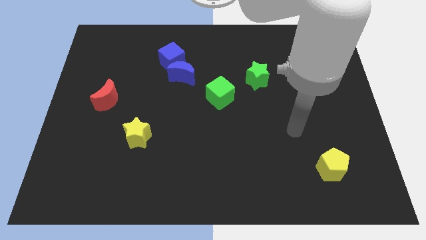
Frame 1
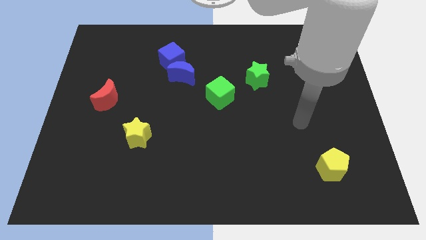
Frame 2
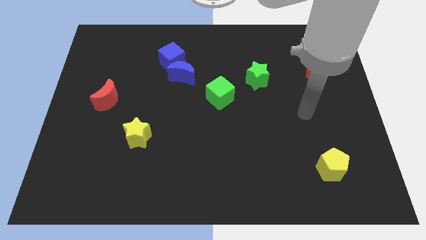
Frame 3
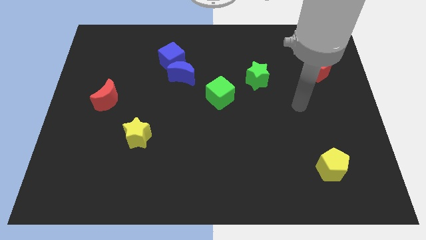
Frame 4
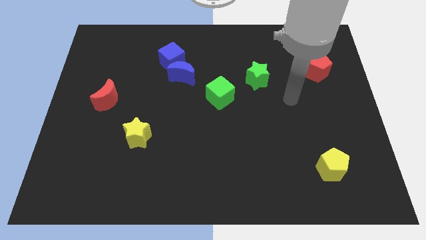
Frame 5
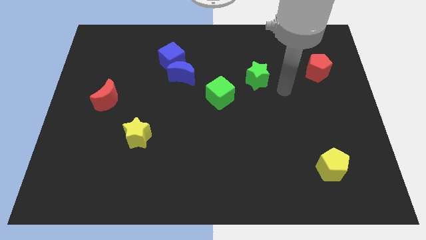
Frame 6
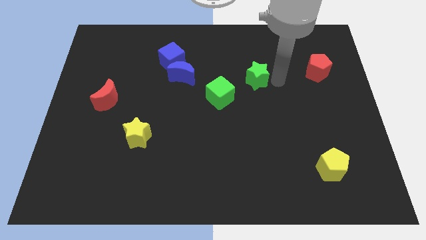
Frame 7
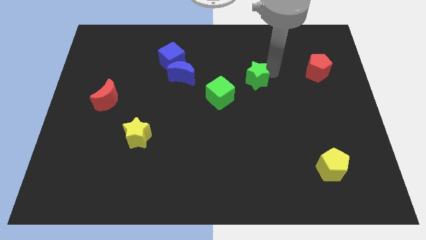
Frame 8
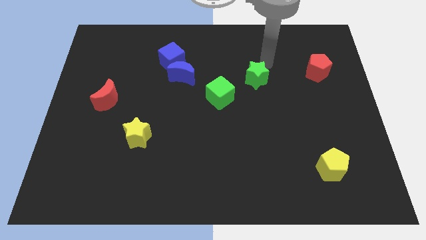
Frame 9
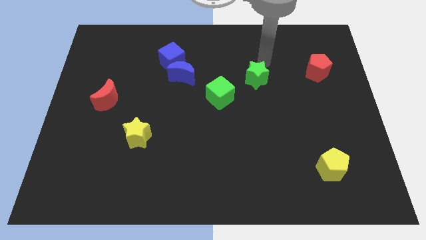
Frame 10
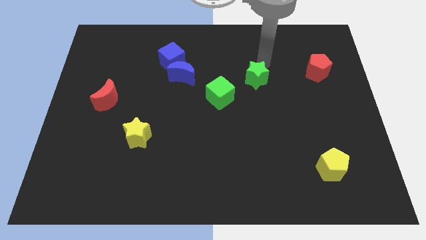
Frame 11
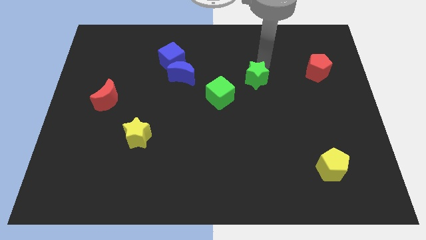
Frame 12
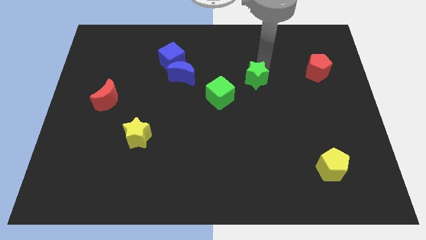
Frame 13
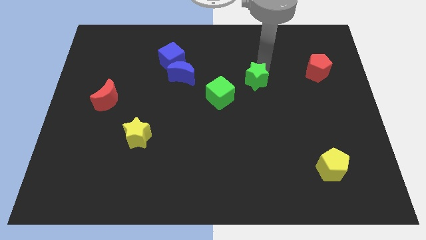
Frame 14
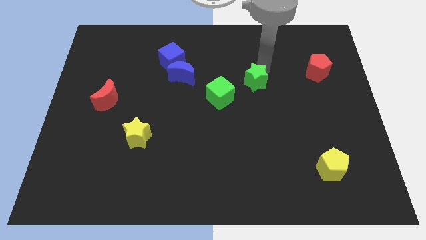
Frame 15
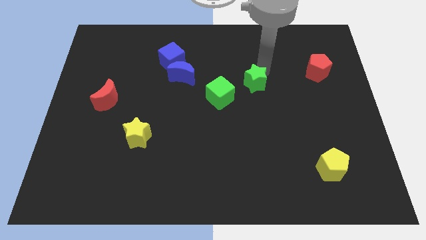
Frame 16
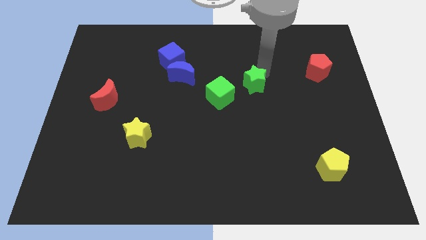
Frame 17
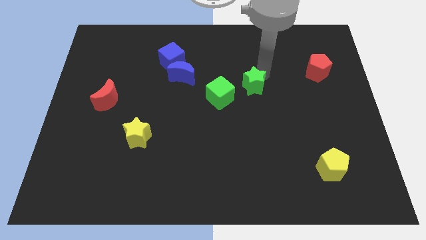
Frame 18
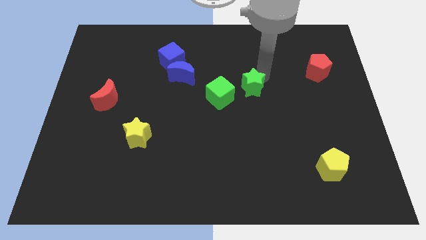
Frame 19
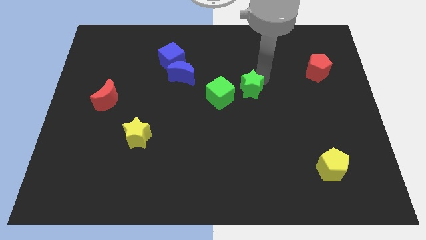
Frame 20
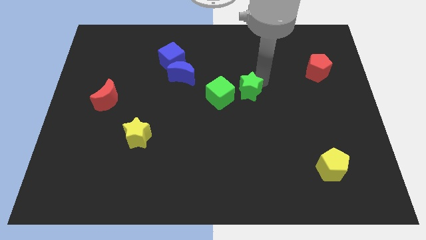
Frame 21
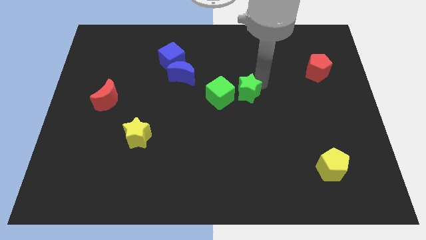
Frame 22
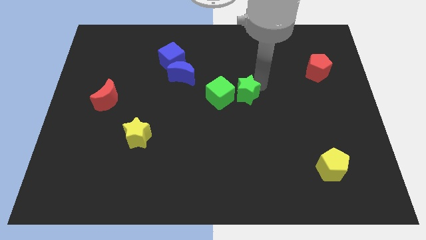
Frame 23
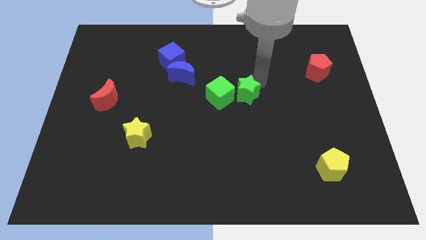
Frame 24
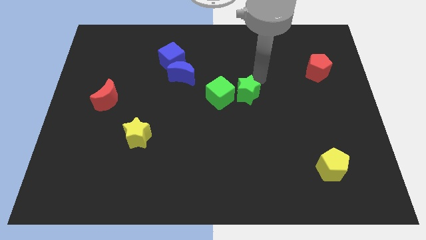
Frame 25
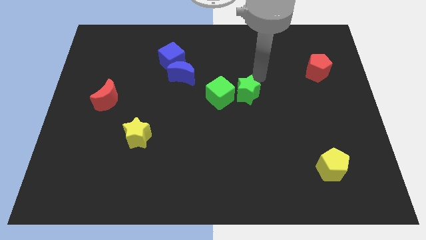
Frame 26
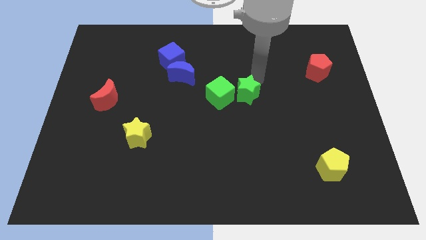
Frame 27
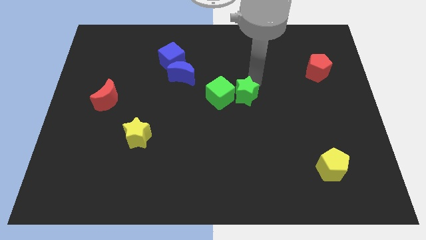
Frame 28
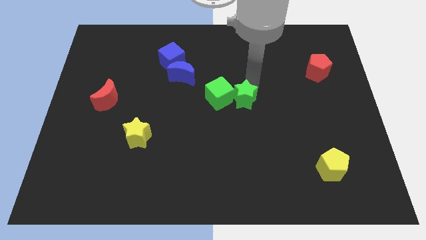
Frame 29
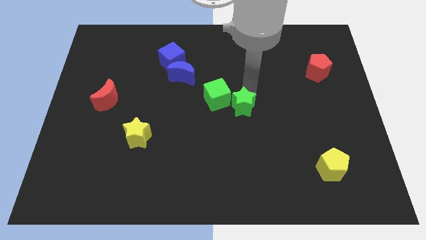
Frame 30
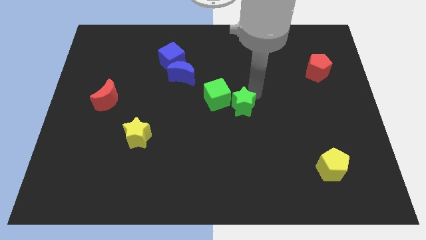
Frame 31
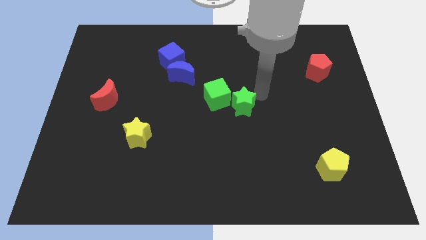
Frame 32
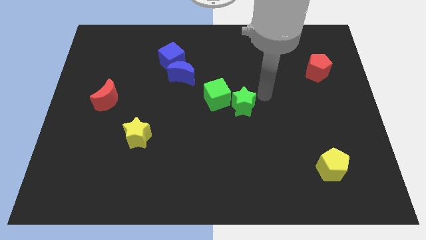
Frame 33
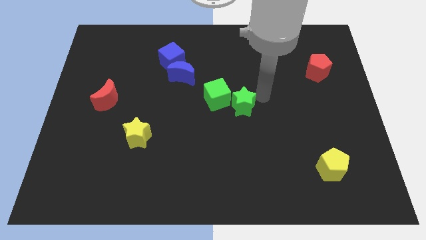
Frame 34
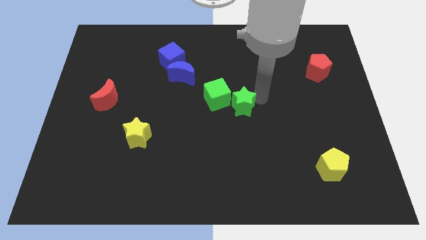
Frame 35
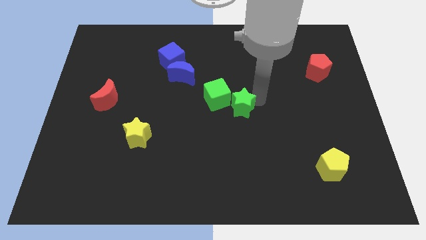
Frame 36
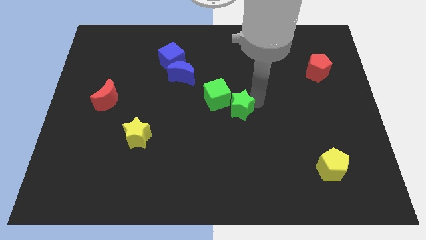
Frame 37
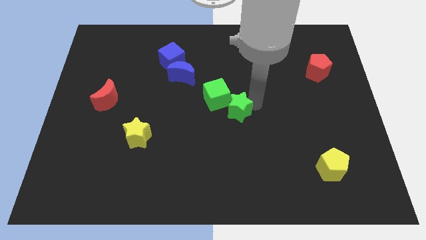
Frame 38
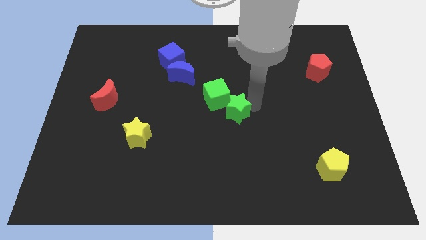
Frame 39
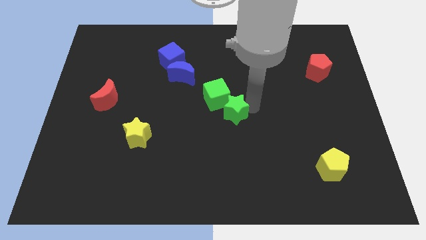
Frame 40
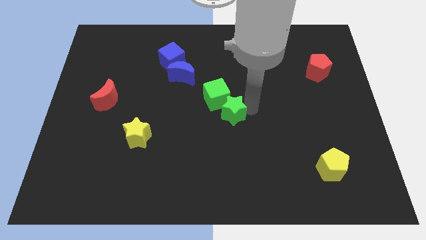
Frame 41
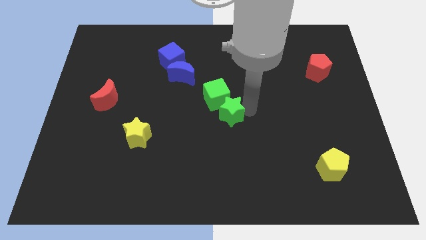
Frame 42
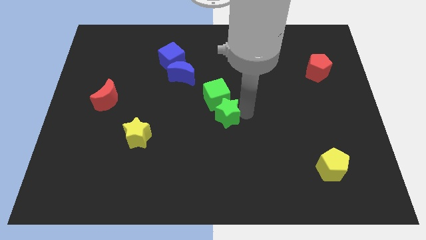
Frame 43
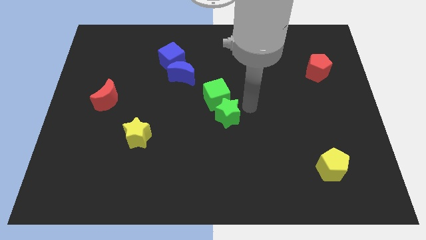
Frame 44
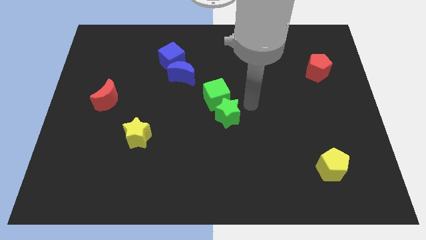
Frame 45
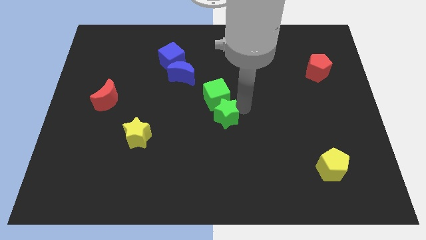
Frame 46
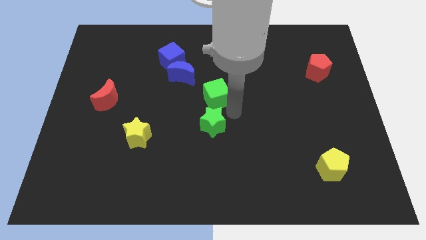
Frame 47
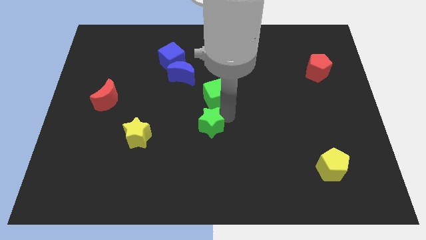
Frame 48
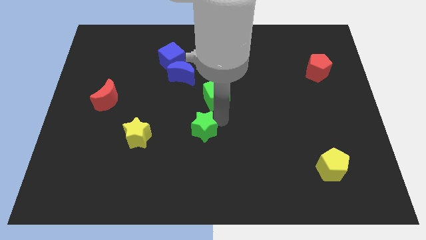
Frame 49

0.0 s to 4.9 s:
put the green star just right of the yellow star

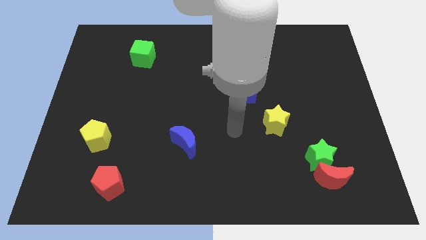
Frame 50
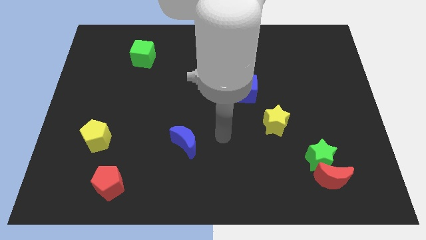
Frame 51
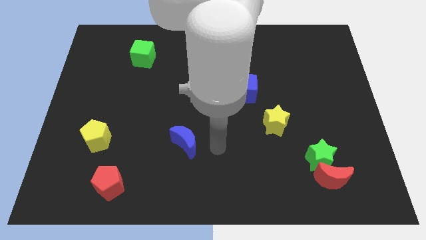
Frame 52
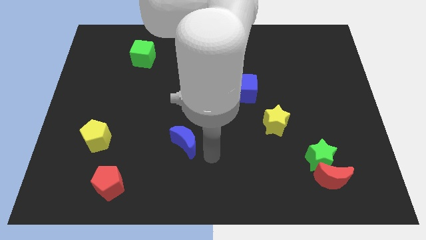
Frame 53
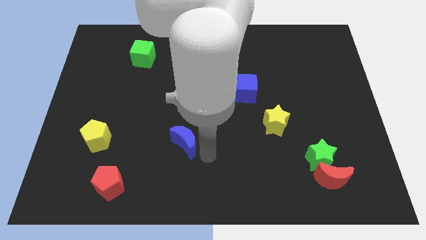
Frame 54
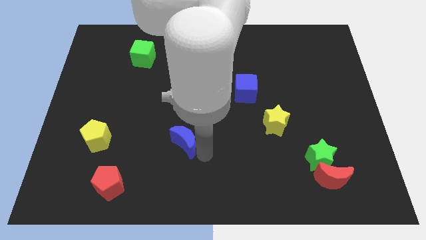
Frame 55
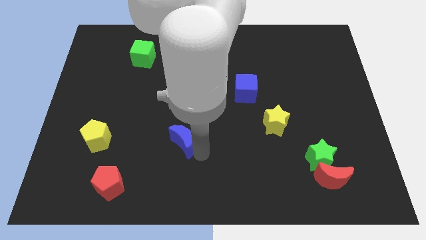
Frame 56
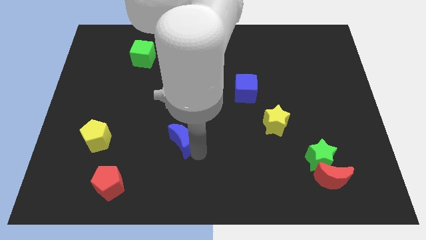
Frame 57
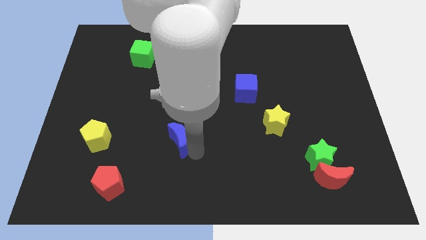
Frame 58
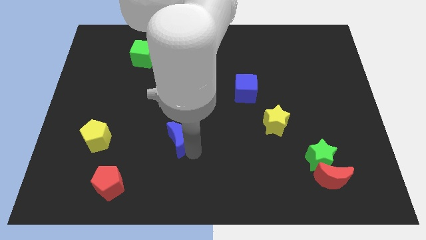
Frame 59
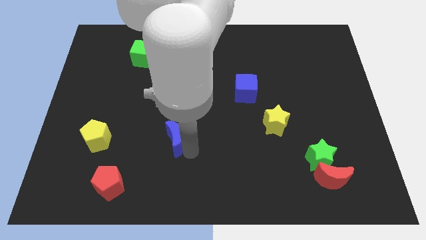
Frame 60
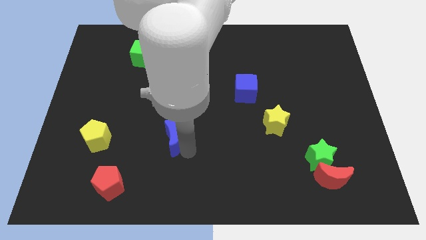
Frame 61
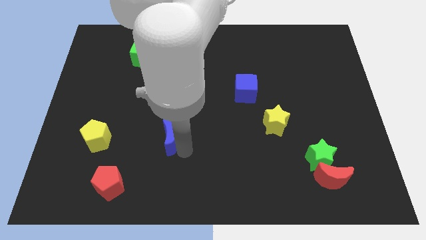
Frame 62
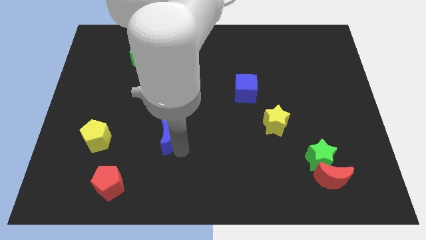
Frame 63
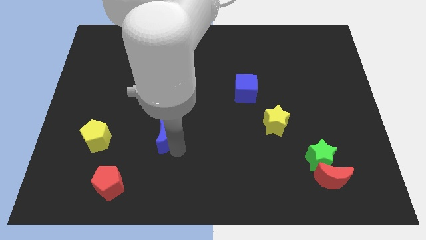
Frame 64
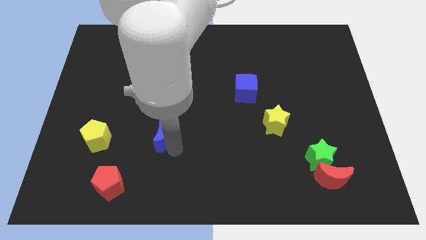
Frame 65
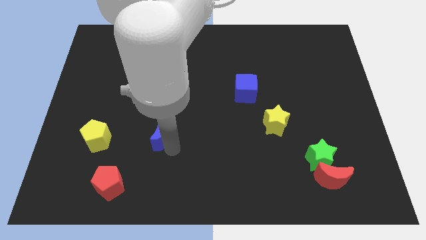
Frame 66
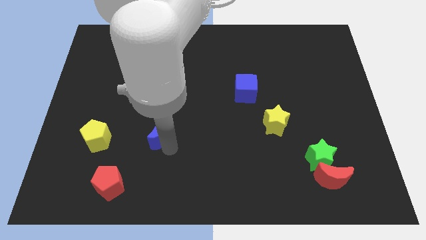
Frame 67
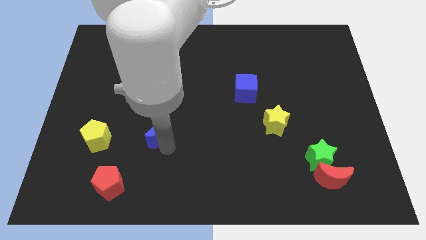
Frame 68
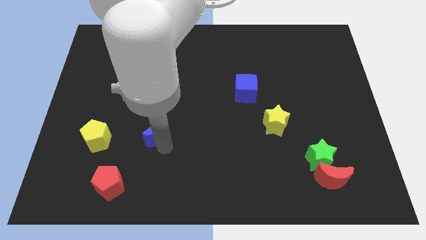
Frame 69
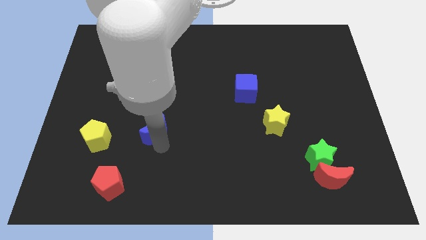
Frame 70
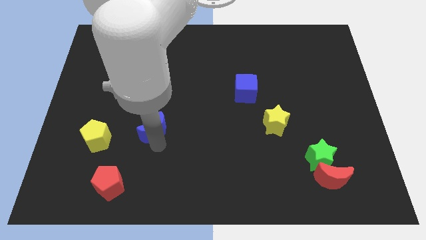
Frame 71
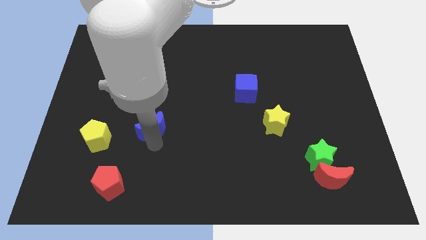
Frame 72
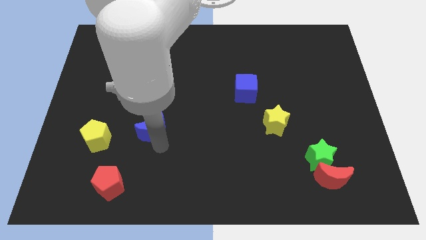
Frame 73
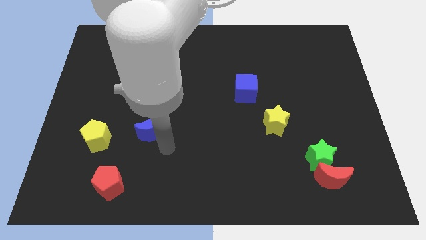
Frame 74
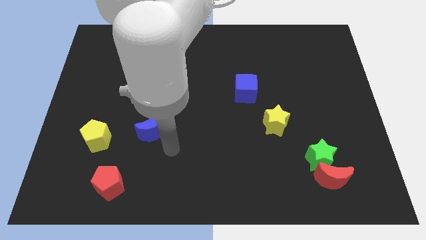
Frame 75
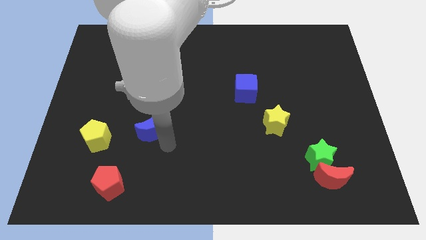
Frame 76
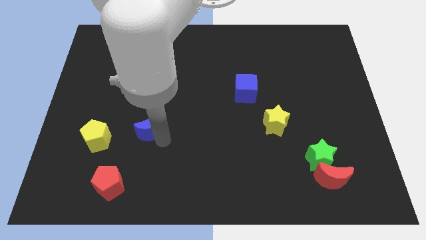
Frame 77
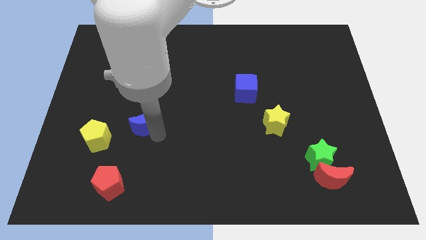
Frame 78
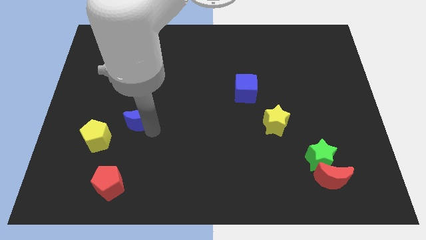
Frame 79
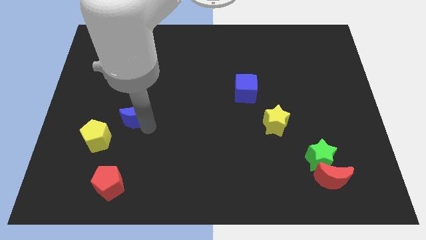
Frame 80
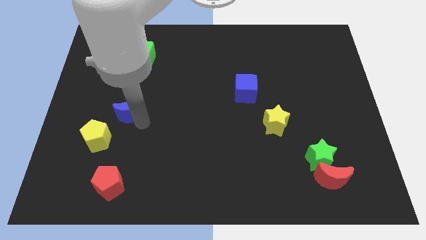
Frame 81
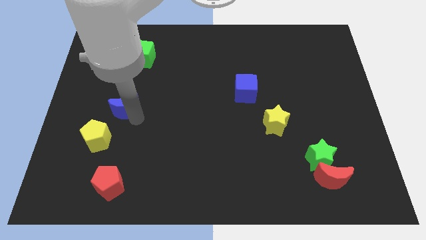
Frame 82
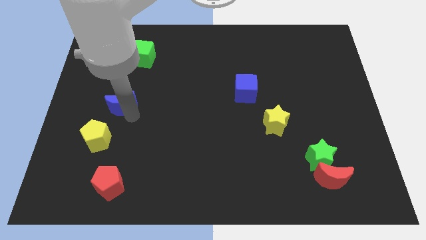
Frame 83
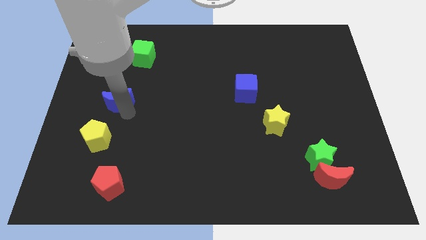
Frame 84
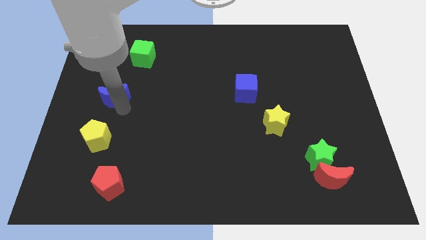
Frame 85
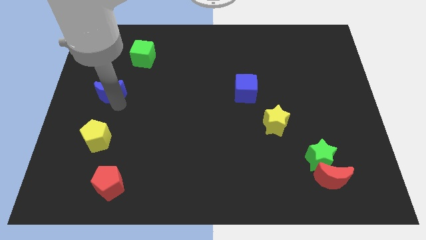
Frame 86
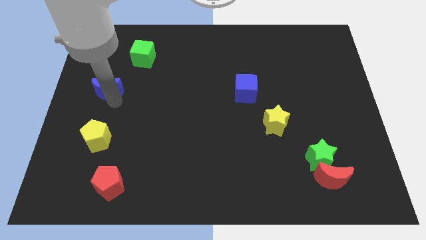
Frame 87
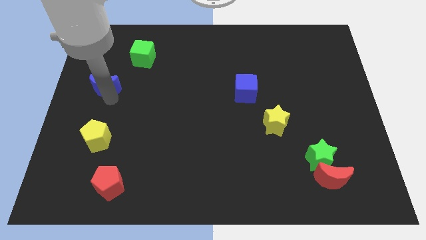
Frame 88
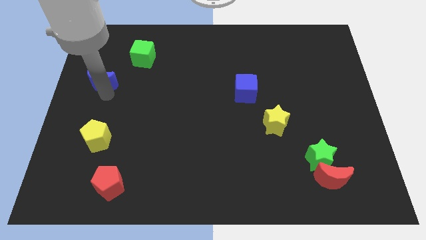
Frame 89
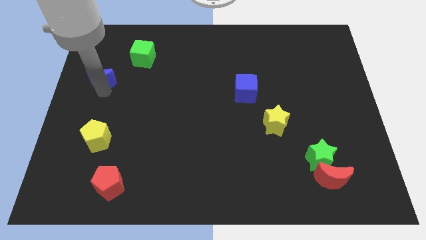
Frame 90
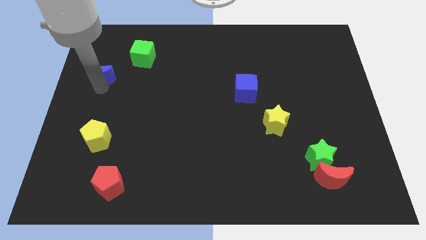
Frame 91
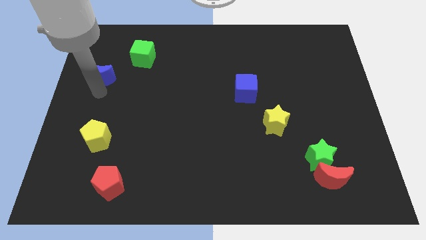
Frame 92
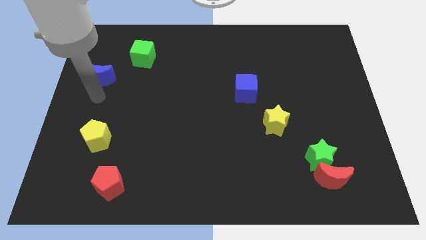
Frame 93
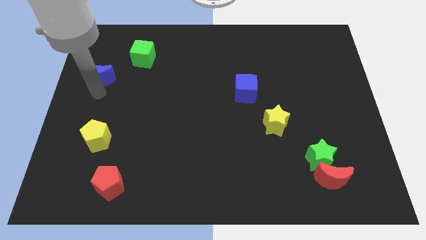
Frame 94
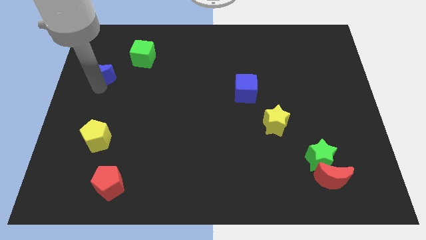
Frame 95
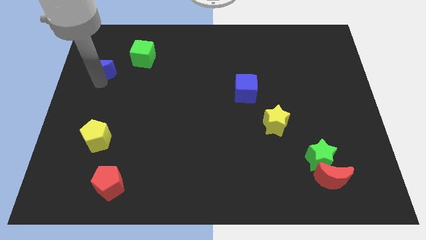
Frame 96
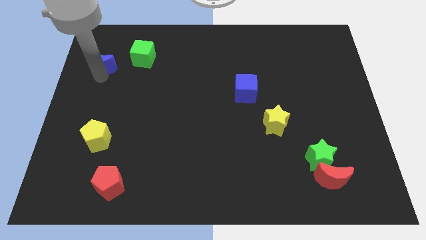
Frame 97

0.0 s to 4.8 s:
move the blue moon left of the green cube
